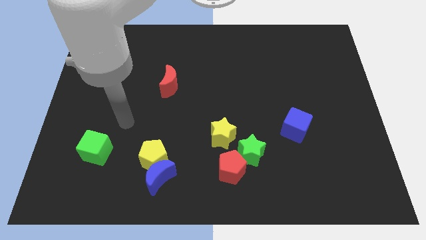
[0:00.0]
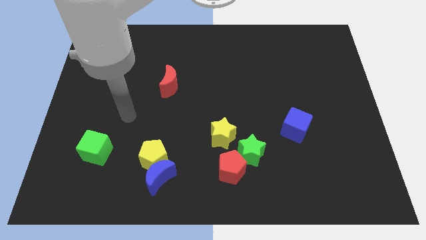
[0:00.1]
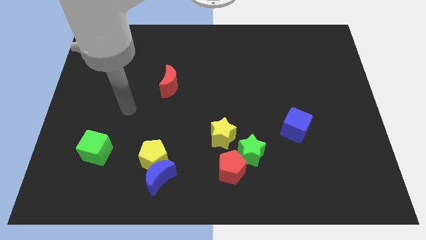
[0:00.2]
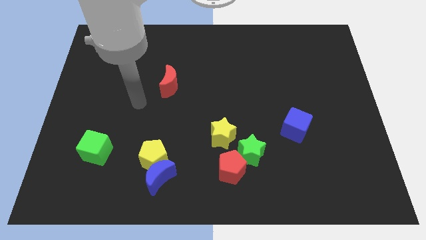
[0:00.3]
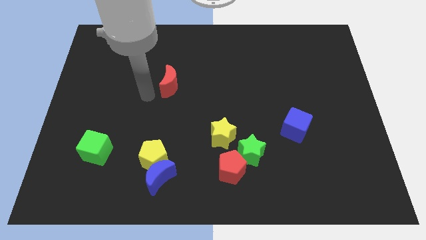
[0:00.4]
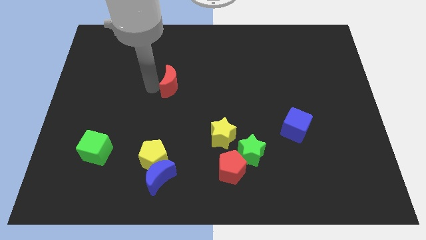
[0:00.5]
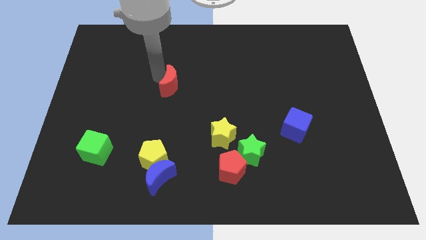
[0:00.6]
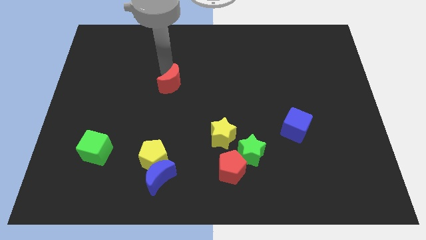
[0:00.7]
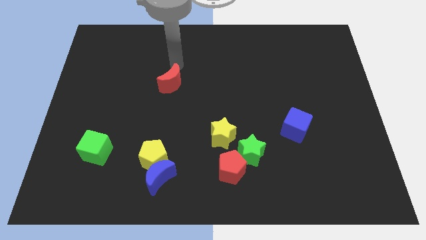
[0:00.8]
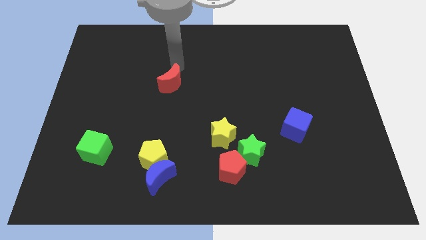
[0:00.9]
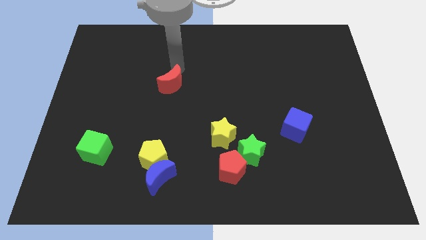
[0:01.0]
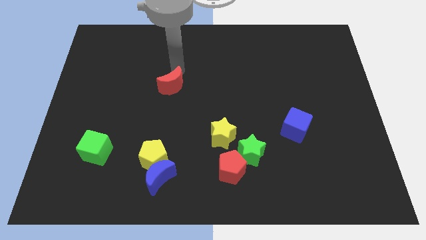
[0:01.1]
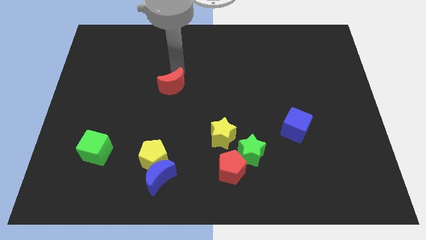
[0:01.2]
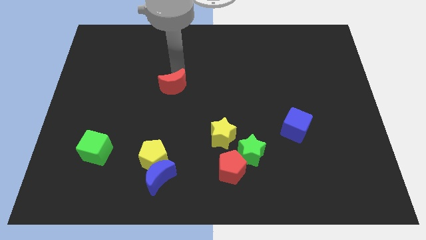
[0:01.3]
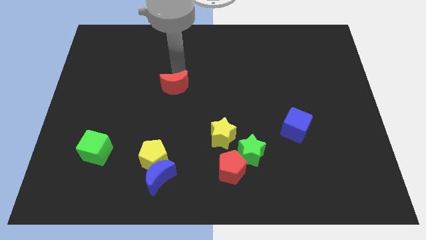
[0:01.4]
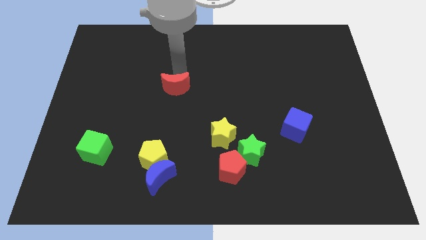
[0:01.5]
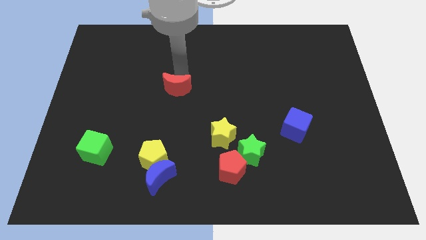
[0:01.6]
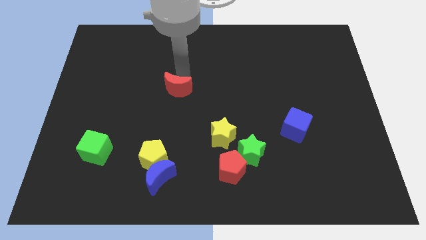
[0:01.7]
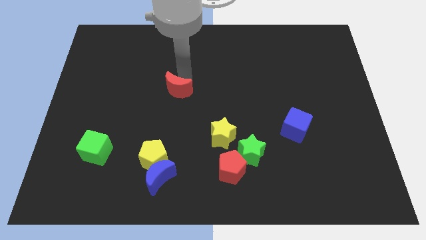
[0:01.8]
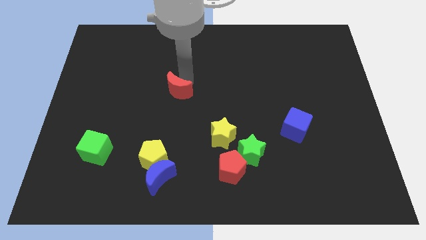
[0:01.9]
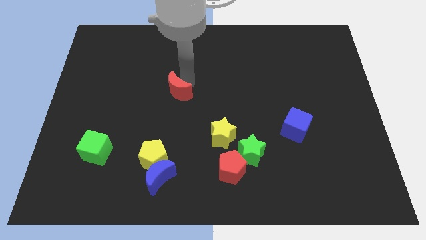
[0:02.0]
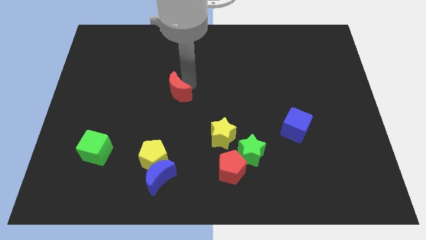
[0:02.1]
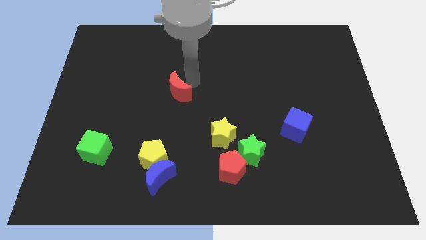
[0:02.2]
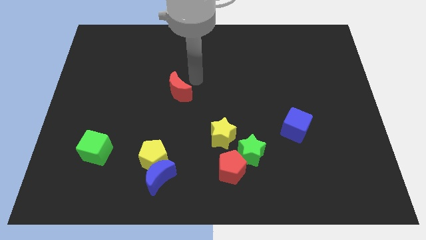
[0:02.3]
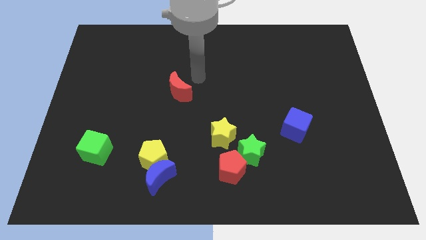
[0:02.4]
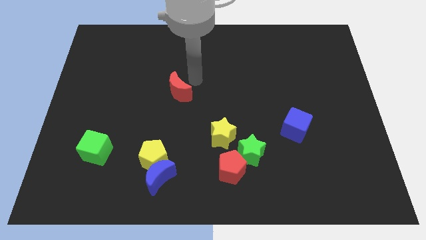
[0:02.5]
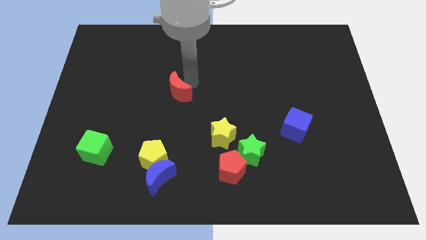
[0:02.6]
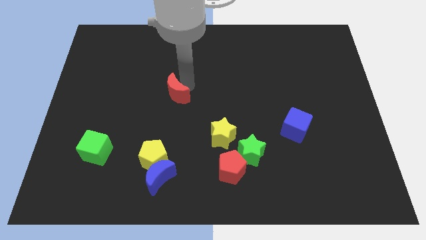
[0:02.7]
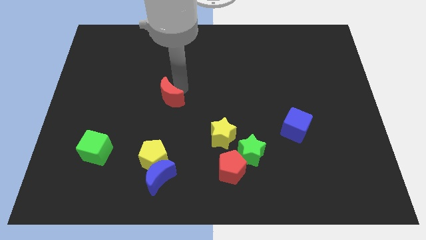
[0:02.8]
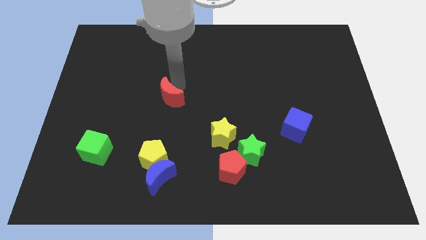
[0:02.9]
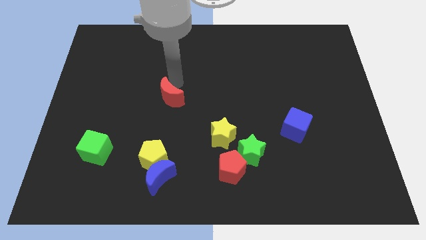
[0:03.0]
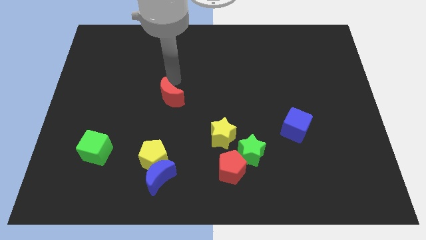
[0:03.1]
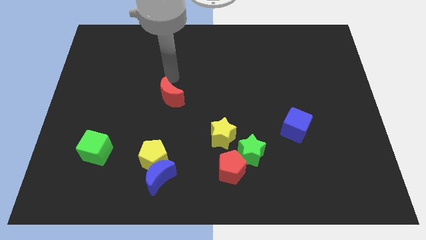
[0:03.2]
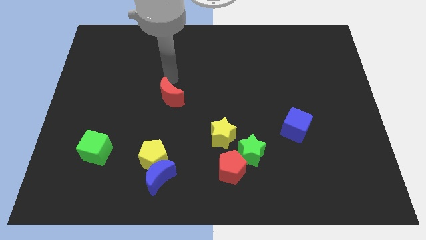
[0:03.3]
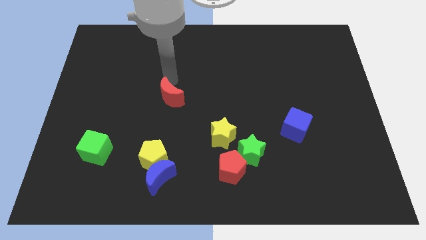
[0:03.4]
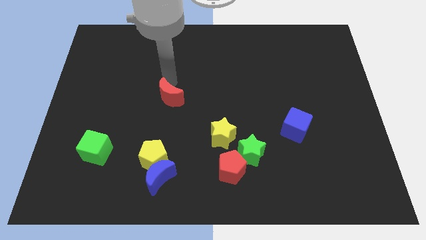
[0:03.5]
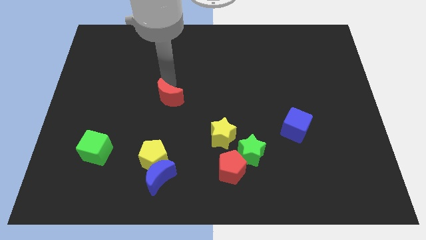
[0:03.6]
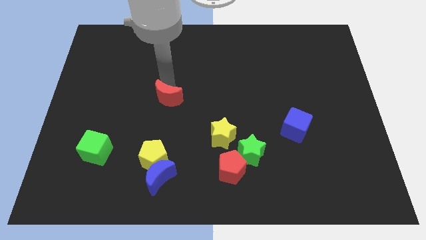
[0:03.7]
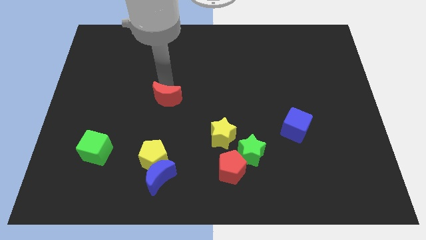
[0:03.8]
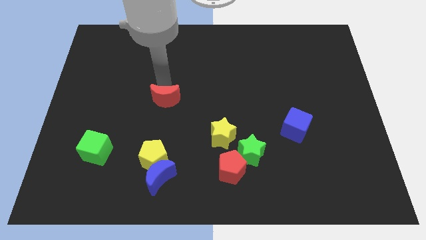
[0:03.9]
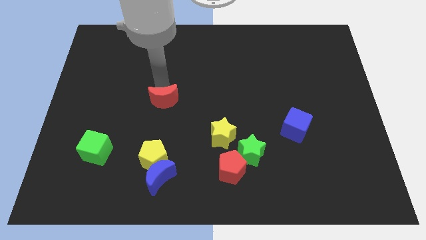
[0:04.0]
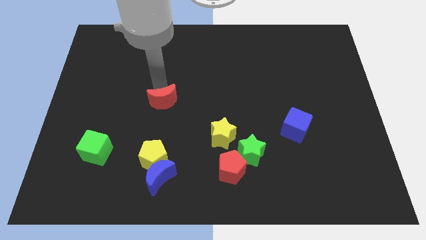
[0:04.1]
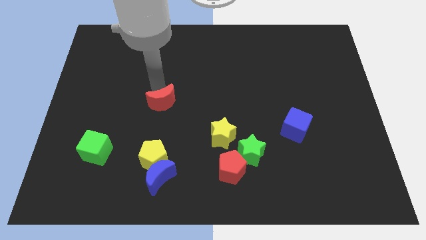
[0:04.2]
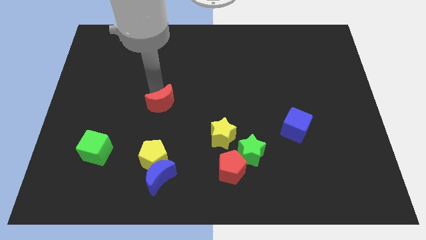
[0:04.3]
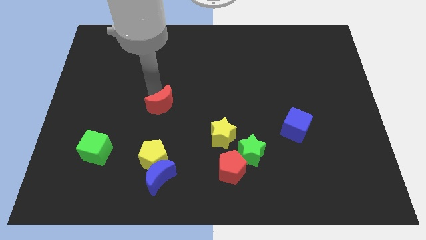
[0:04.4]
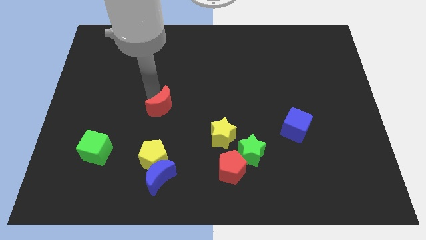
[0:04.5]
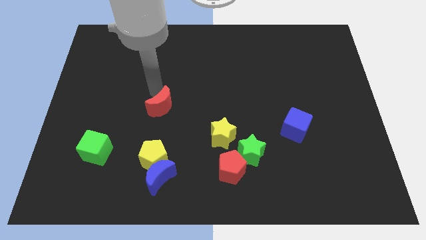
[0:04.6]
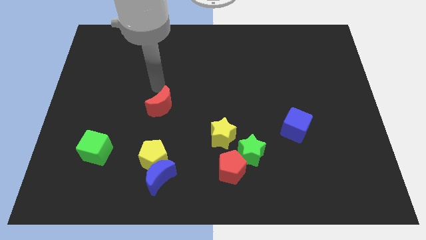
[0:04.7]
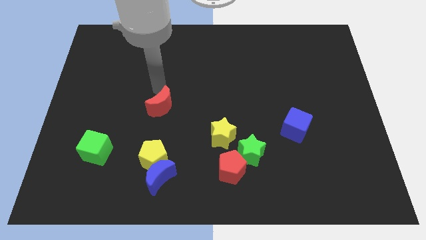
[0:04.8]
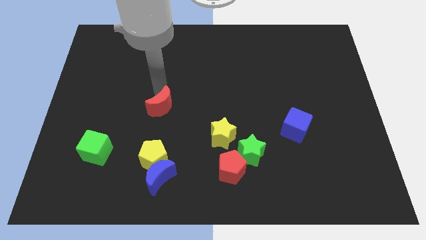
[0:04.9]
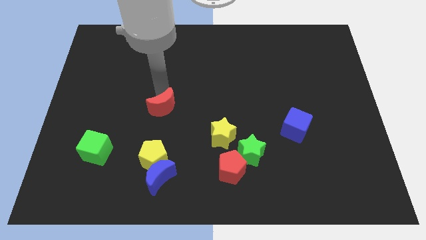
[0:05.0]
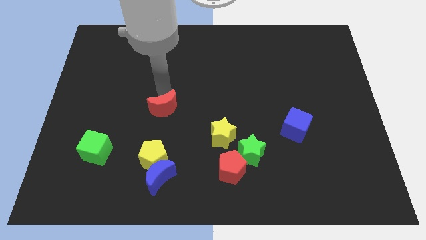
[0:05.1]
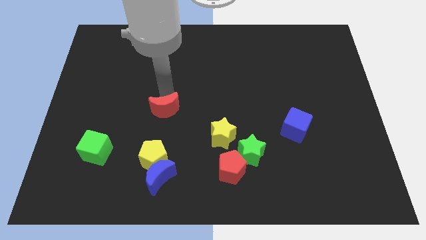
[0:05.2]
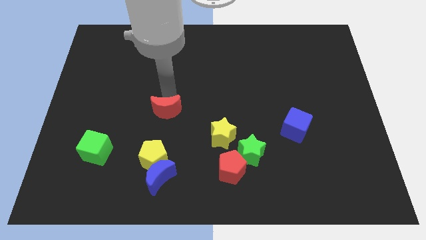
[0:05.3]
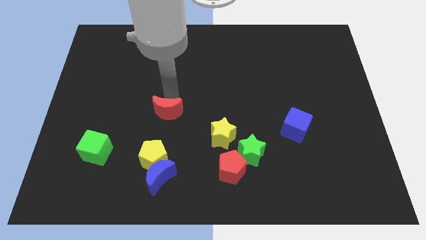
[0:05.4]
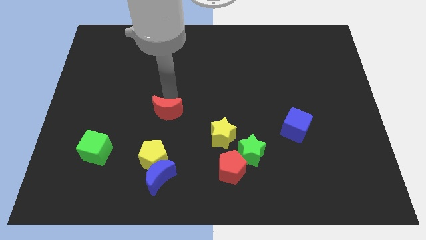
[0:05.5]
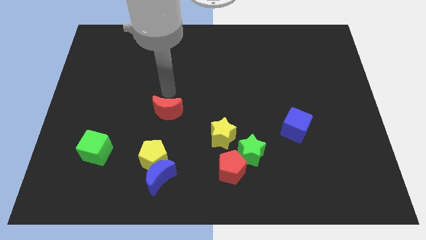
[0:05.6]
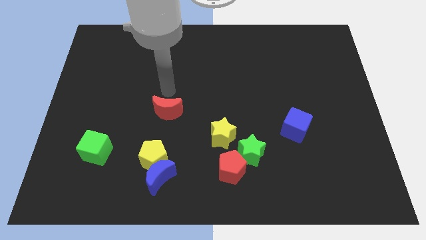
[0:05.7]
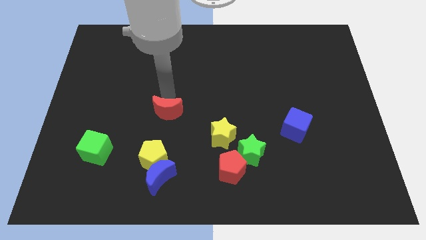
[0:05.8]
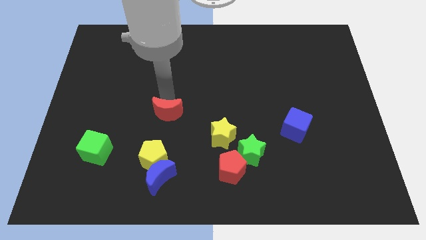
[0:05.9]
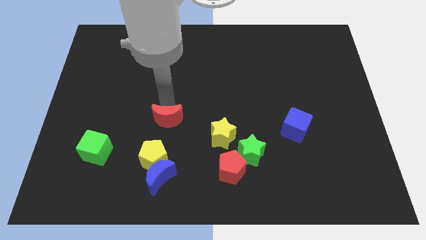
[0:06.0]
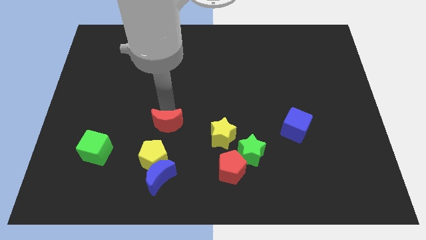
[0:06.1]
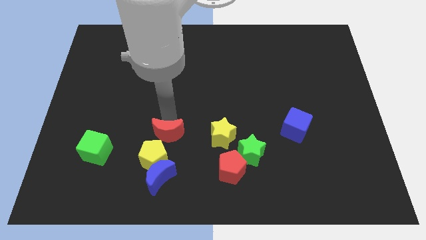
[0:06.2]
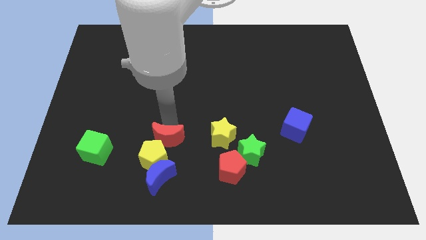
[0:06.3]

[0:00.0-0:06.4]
push the red moon to the yellow pentagon

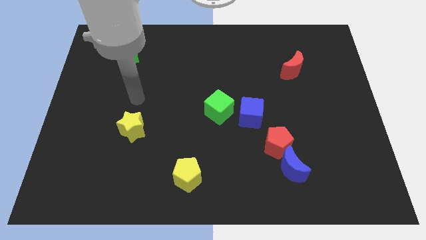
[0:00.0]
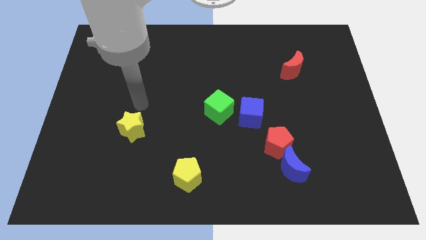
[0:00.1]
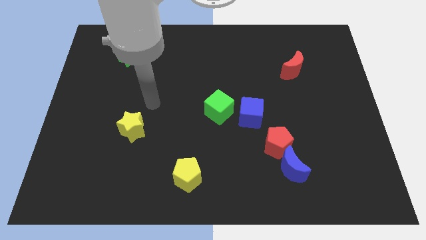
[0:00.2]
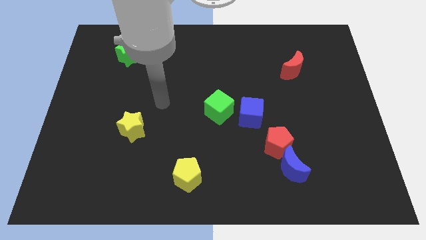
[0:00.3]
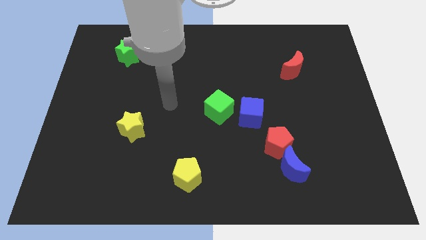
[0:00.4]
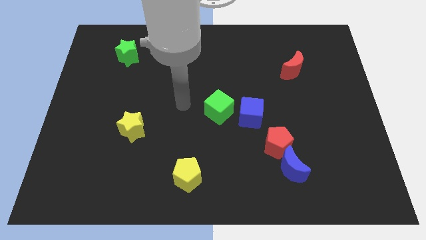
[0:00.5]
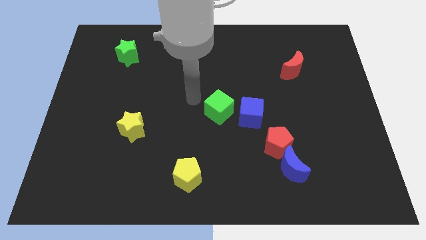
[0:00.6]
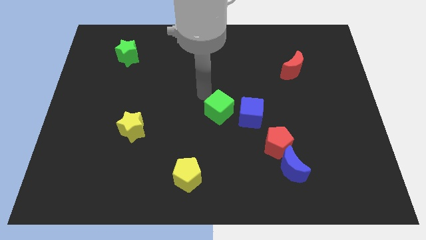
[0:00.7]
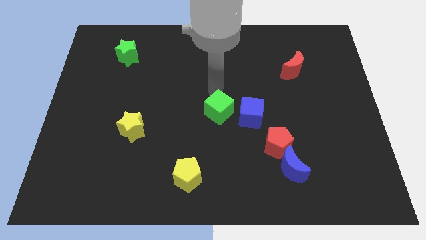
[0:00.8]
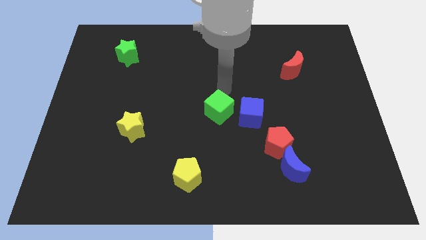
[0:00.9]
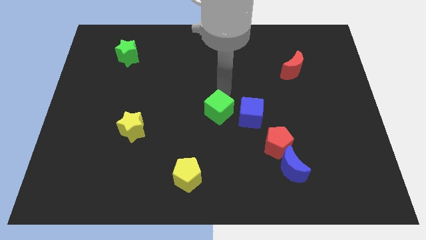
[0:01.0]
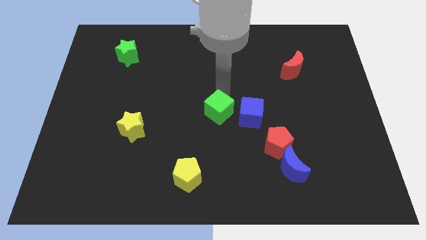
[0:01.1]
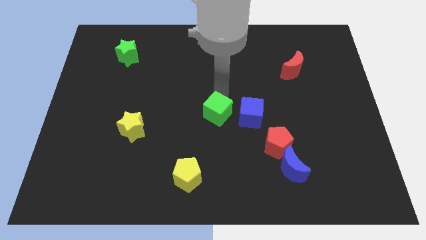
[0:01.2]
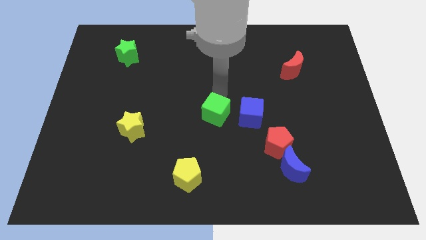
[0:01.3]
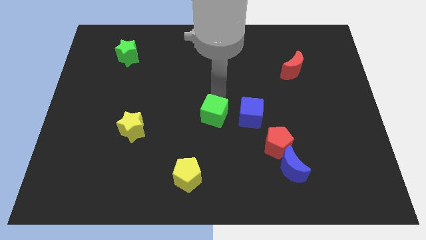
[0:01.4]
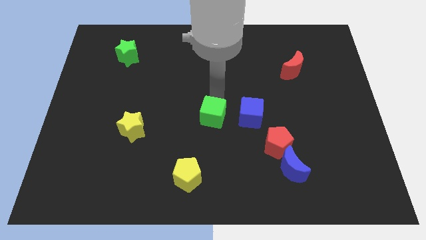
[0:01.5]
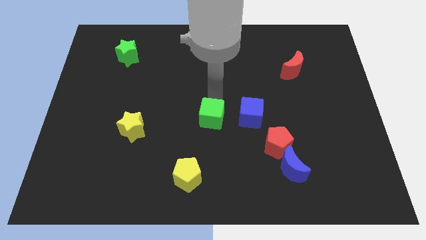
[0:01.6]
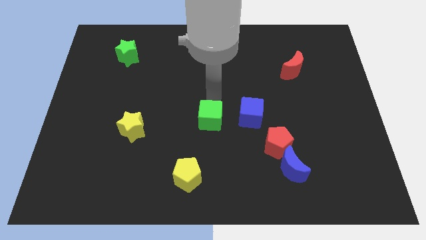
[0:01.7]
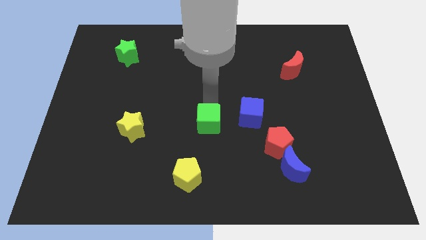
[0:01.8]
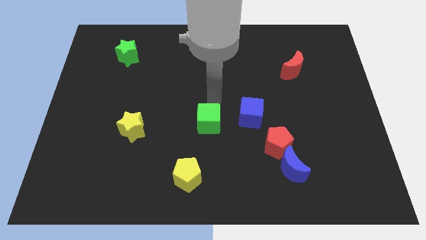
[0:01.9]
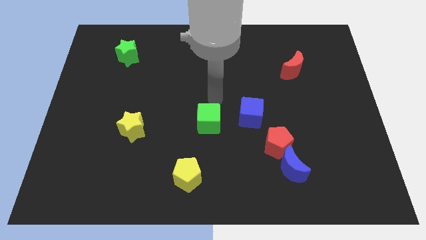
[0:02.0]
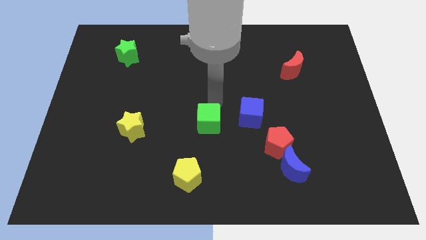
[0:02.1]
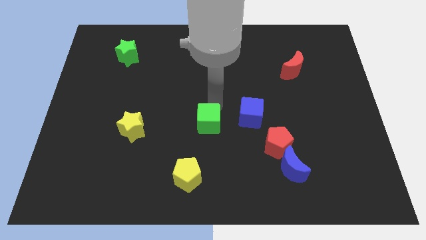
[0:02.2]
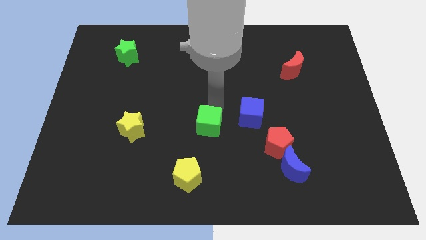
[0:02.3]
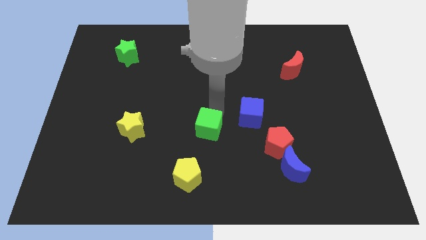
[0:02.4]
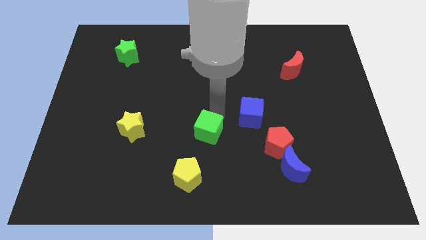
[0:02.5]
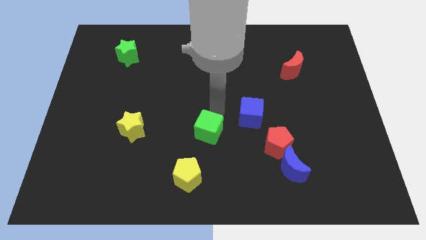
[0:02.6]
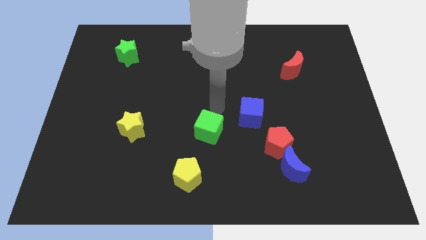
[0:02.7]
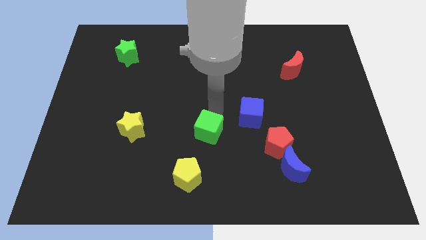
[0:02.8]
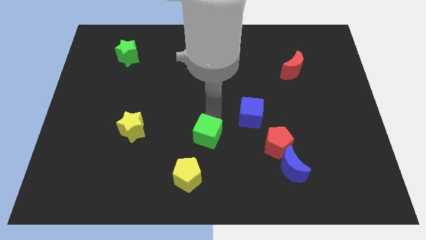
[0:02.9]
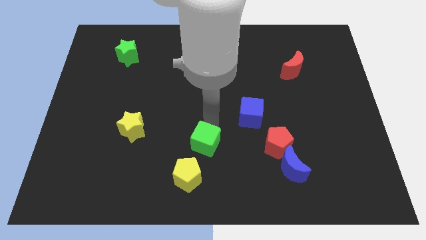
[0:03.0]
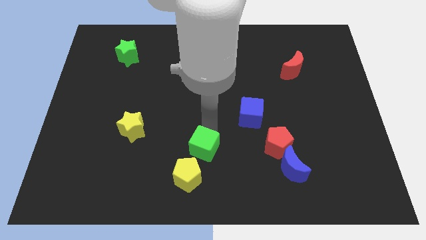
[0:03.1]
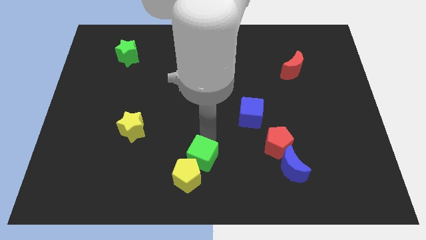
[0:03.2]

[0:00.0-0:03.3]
put the green cube close to the yellow pentagon
